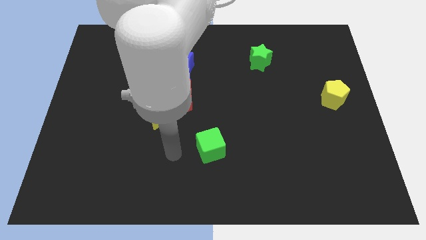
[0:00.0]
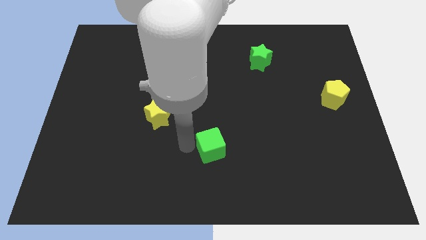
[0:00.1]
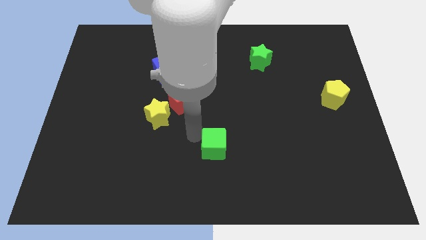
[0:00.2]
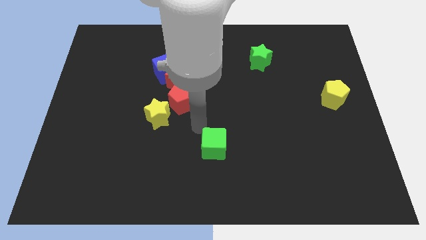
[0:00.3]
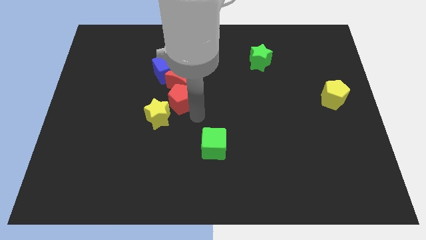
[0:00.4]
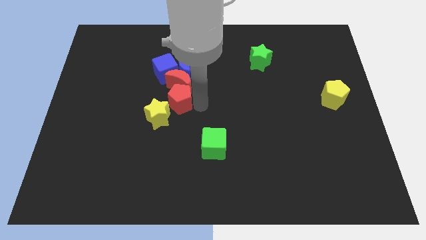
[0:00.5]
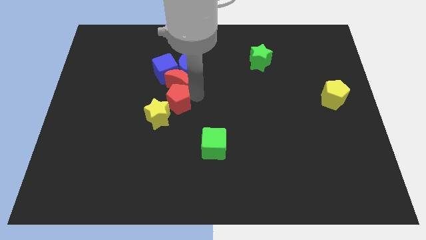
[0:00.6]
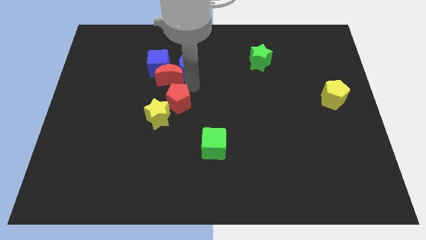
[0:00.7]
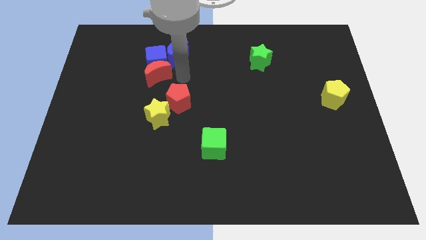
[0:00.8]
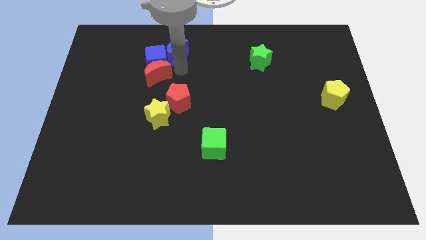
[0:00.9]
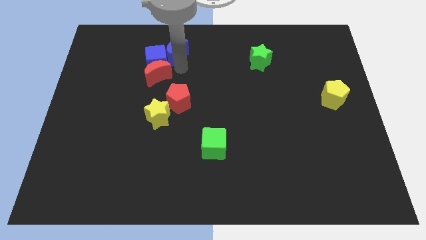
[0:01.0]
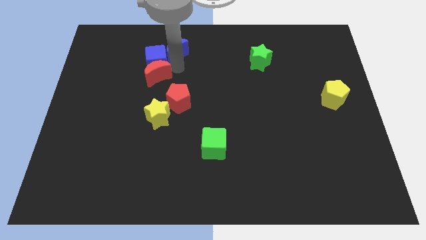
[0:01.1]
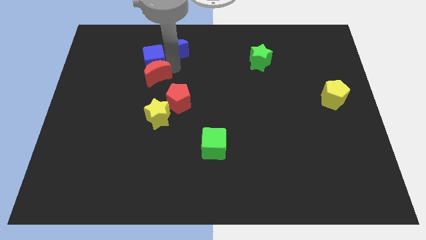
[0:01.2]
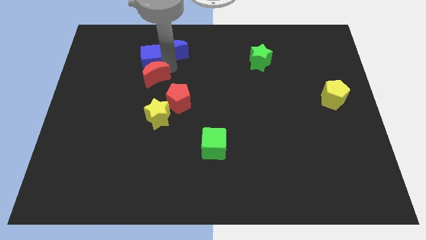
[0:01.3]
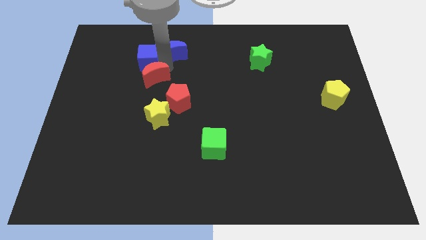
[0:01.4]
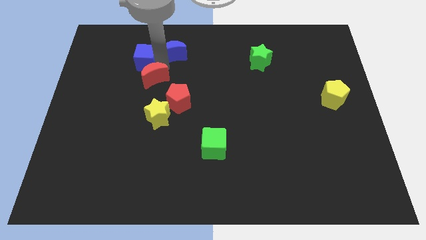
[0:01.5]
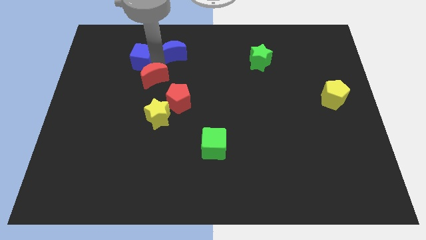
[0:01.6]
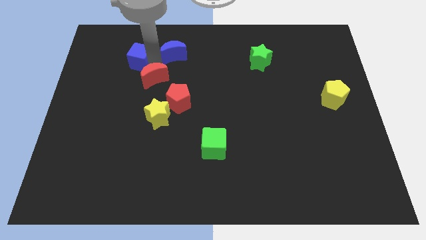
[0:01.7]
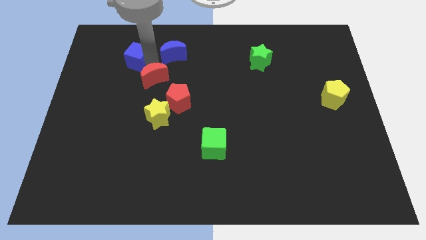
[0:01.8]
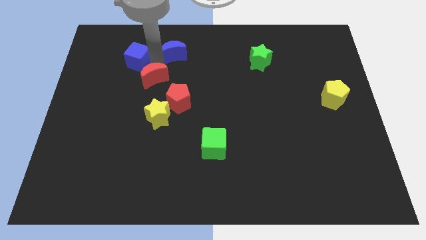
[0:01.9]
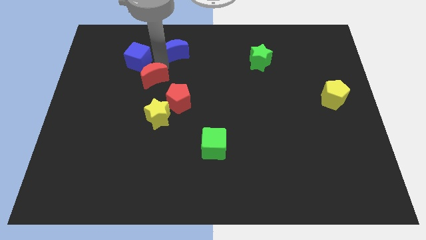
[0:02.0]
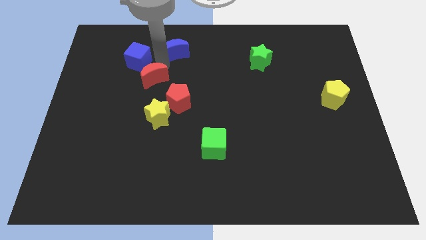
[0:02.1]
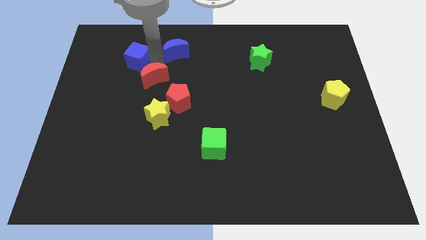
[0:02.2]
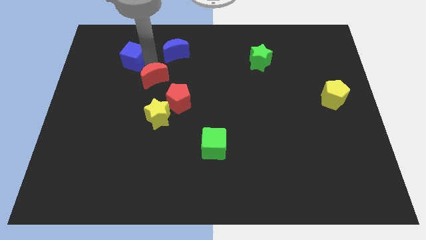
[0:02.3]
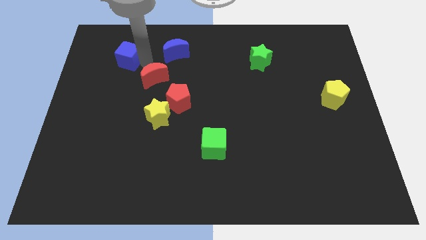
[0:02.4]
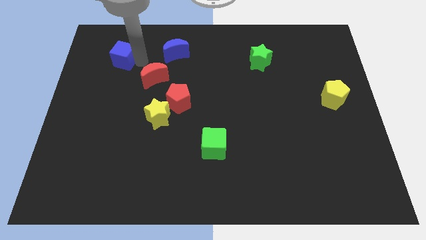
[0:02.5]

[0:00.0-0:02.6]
pull the blue cube apart from the blue moon and red moon

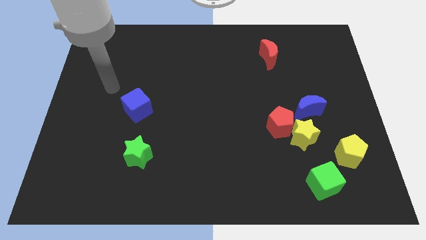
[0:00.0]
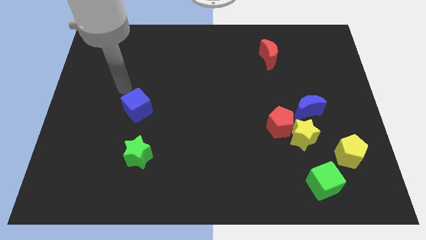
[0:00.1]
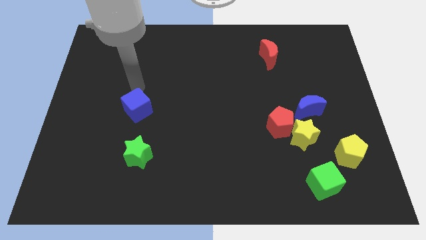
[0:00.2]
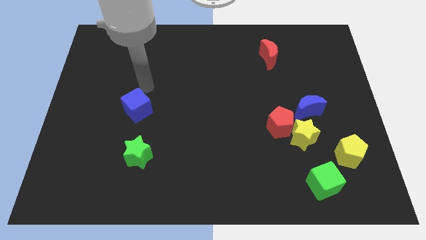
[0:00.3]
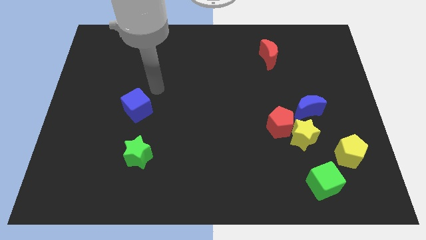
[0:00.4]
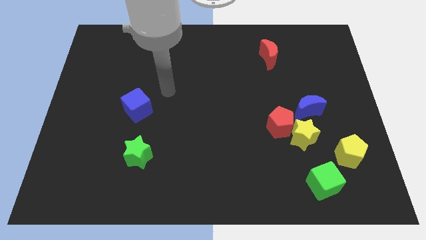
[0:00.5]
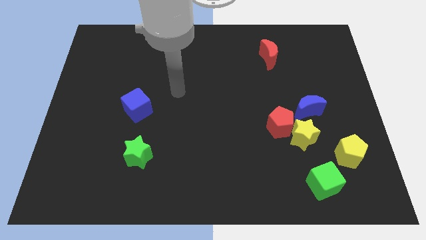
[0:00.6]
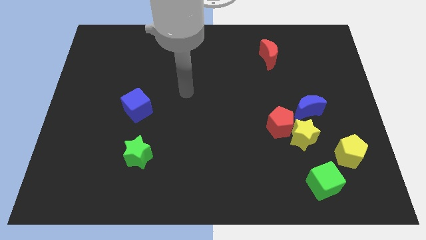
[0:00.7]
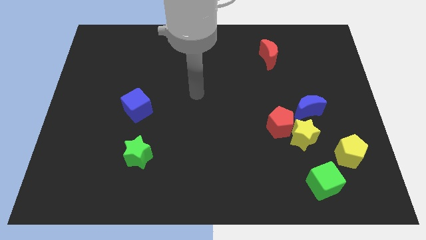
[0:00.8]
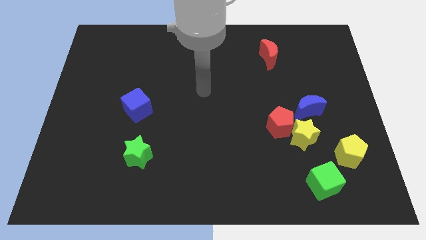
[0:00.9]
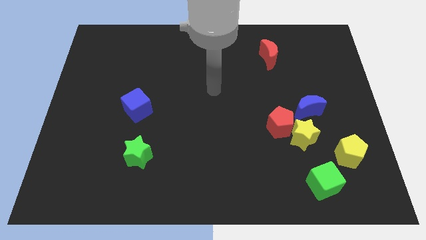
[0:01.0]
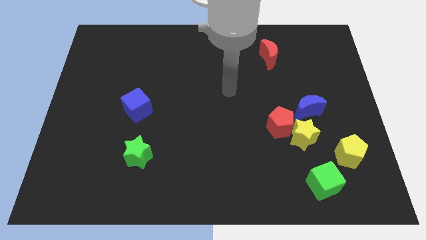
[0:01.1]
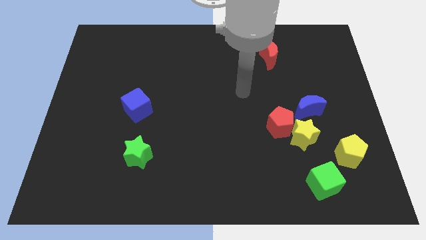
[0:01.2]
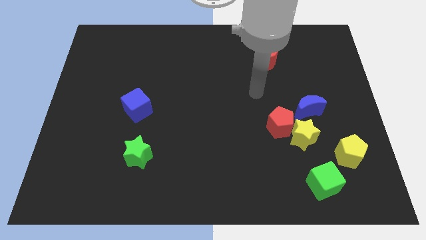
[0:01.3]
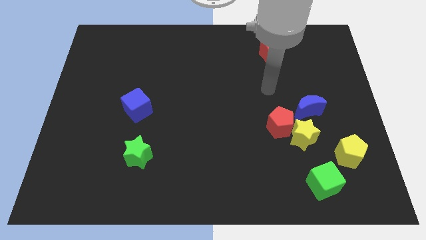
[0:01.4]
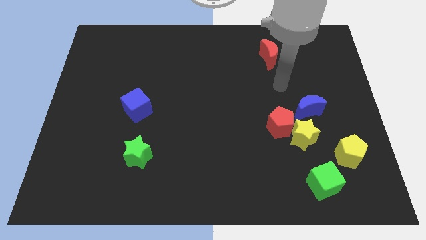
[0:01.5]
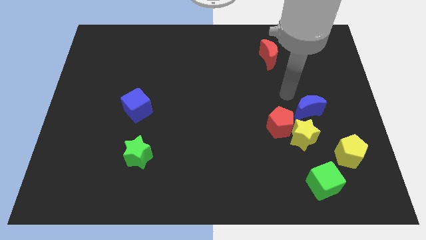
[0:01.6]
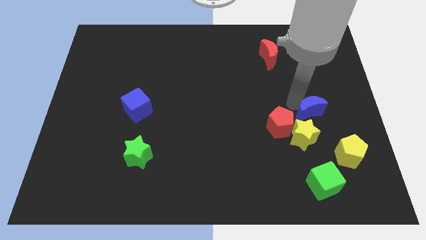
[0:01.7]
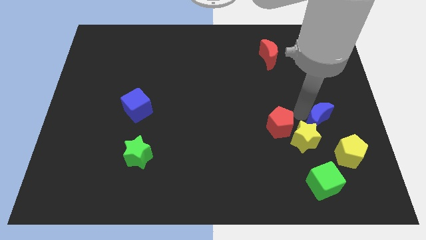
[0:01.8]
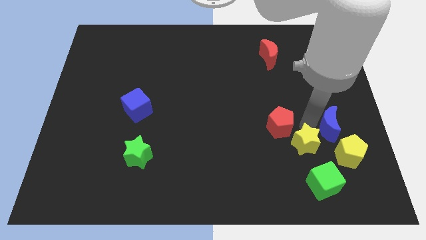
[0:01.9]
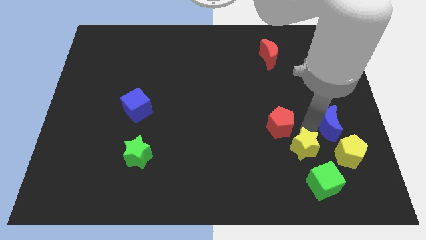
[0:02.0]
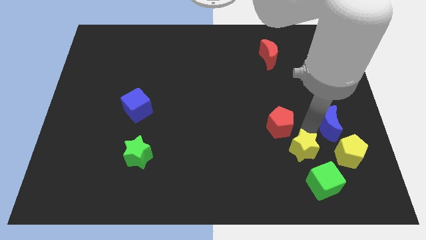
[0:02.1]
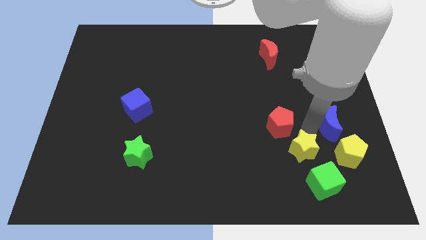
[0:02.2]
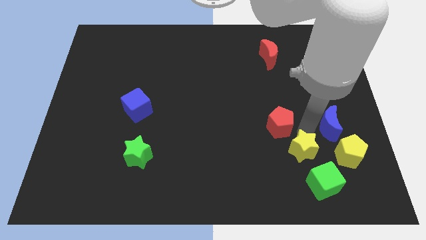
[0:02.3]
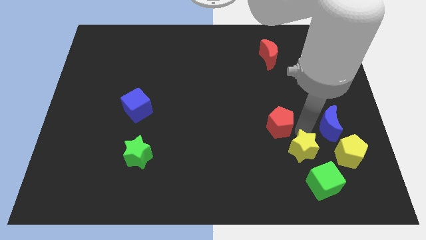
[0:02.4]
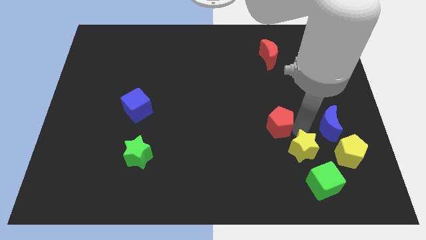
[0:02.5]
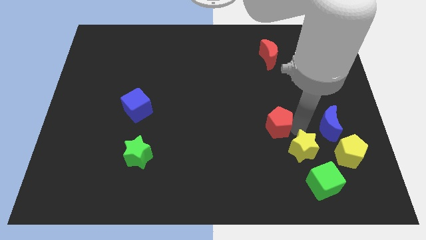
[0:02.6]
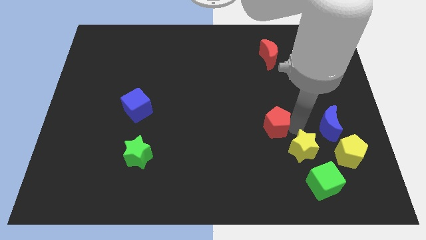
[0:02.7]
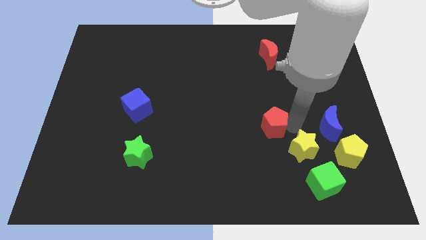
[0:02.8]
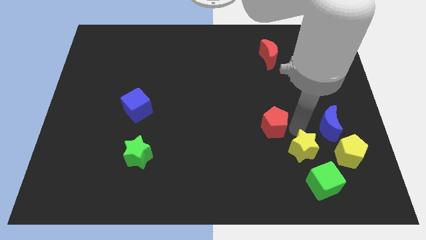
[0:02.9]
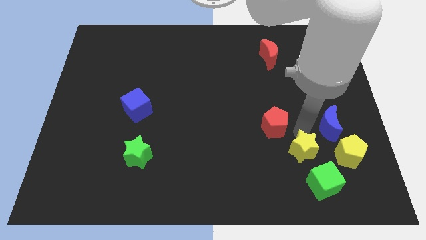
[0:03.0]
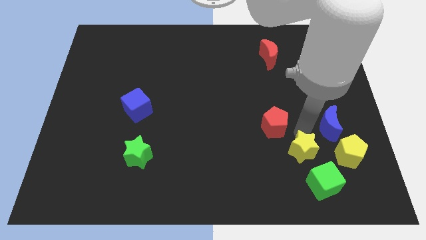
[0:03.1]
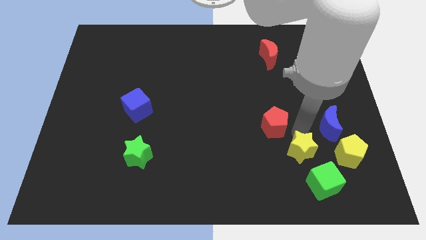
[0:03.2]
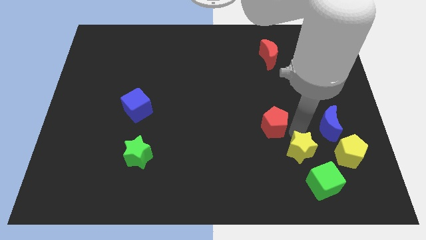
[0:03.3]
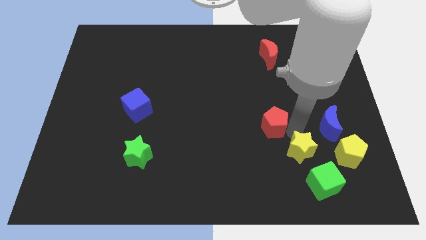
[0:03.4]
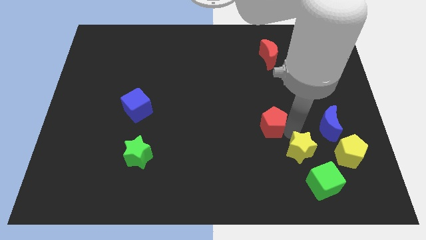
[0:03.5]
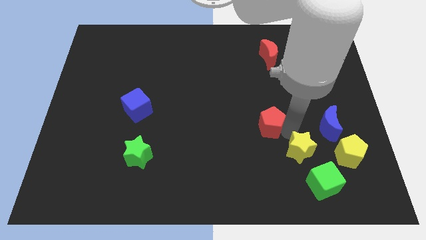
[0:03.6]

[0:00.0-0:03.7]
separate the red pentagon from the yellow star and blue moon

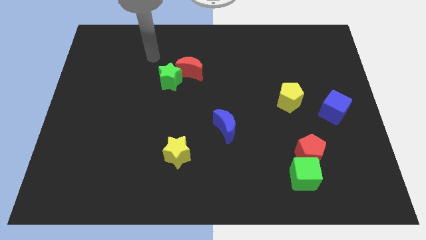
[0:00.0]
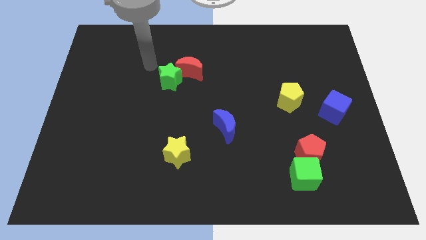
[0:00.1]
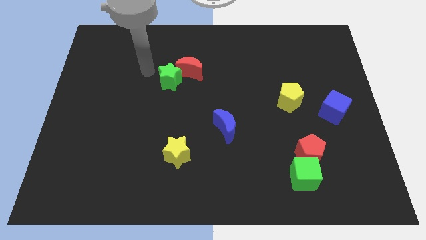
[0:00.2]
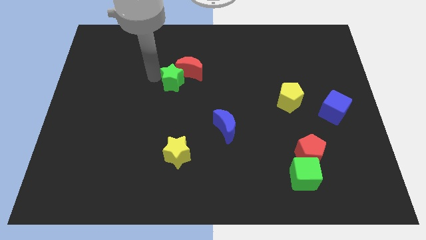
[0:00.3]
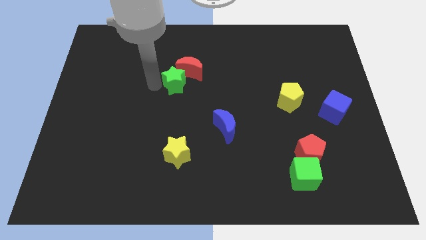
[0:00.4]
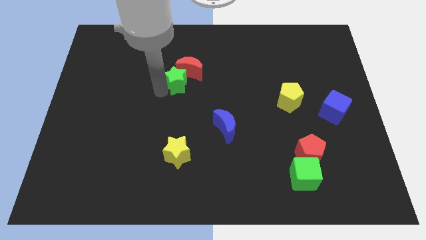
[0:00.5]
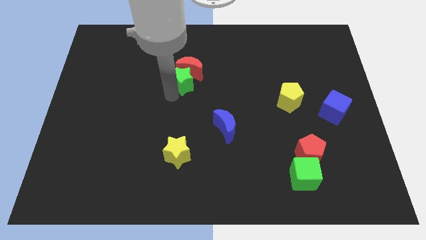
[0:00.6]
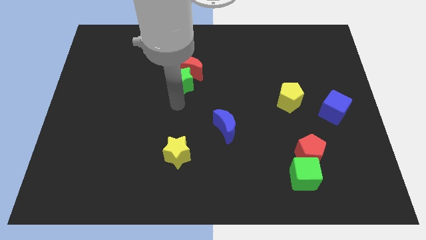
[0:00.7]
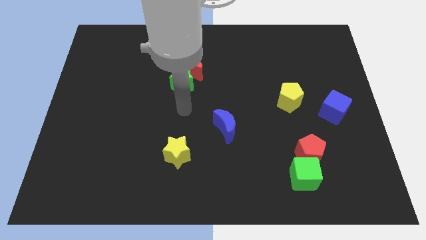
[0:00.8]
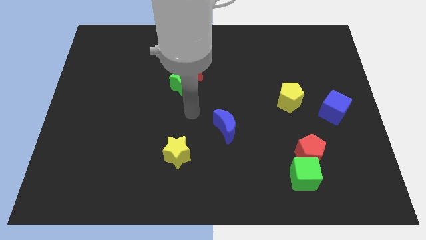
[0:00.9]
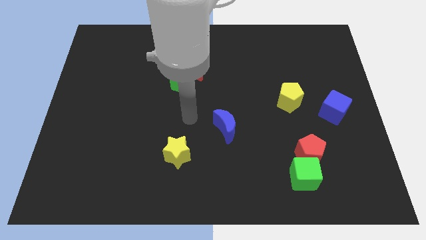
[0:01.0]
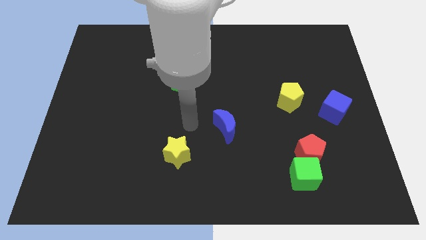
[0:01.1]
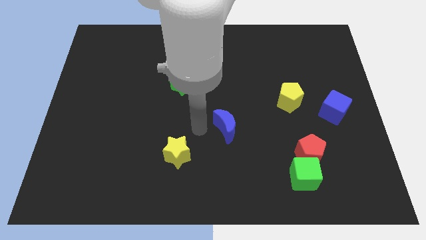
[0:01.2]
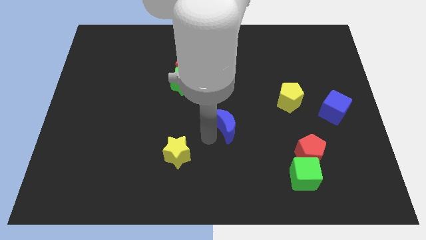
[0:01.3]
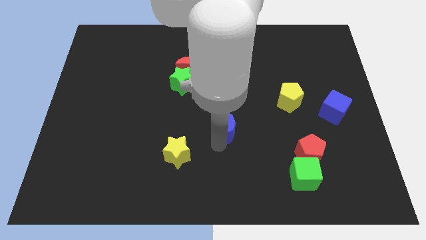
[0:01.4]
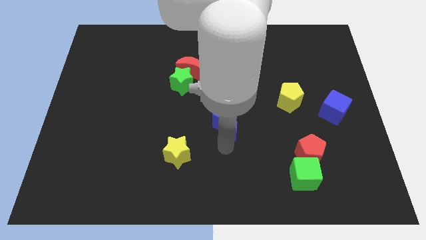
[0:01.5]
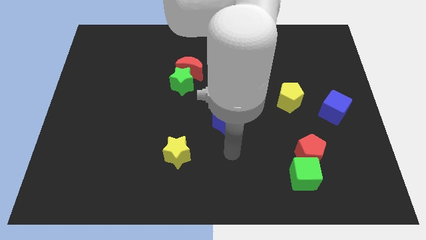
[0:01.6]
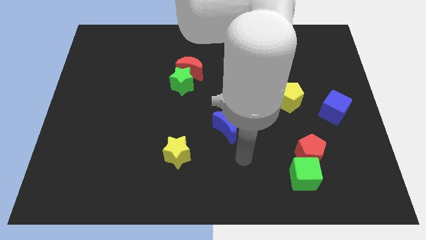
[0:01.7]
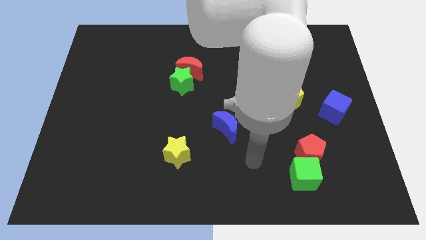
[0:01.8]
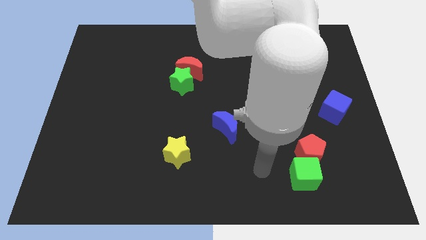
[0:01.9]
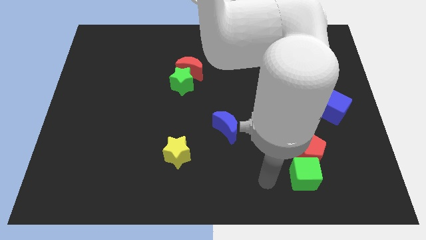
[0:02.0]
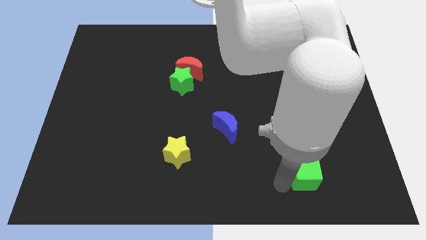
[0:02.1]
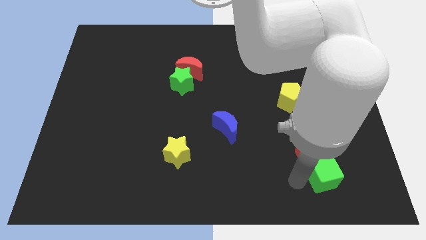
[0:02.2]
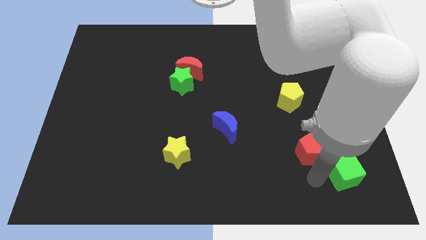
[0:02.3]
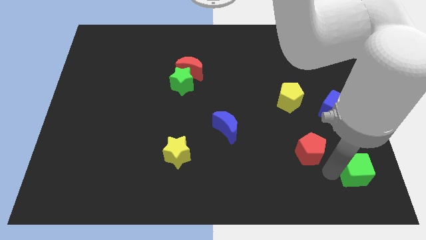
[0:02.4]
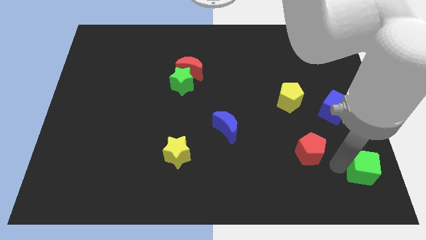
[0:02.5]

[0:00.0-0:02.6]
separate the red pentagon from the green cube

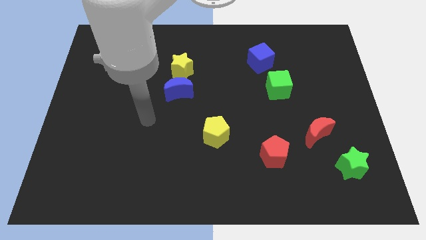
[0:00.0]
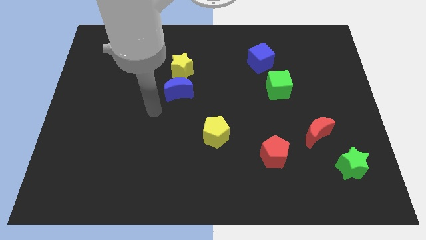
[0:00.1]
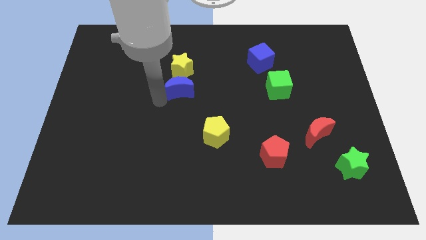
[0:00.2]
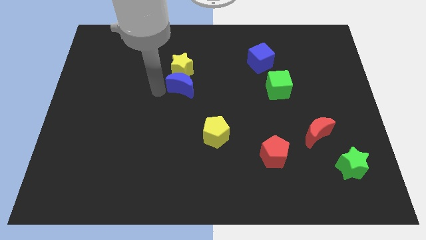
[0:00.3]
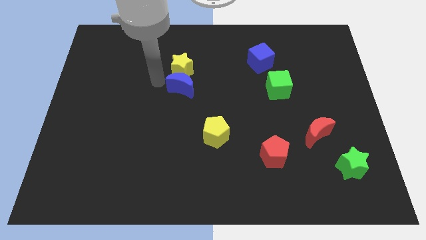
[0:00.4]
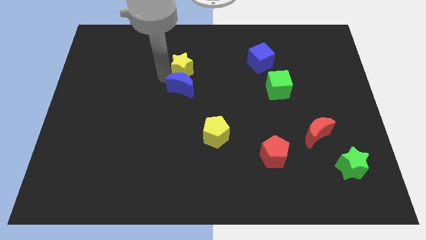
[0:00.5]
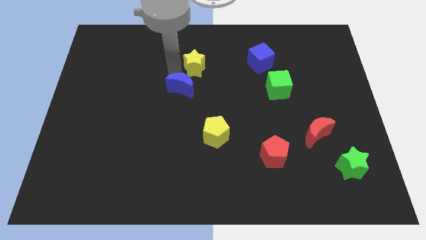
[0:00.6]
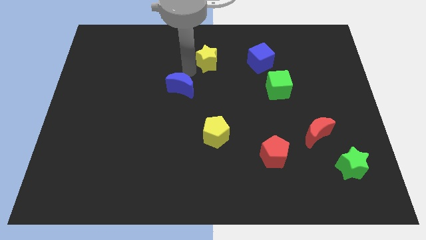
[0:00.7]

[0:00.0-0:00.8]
move the blue moon away from the yellow star
